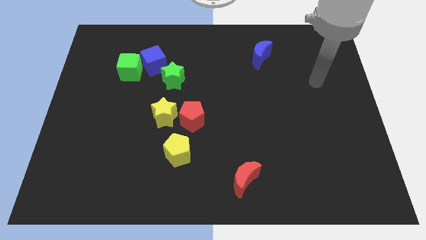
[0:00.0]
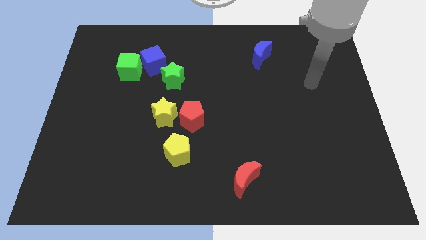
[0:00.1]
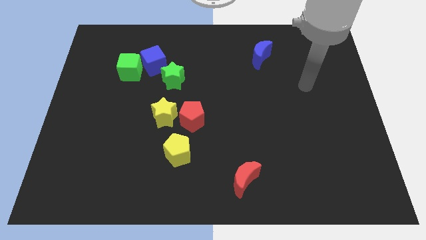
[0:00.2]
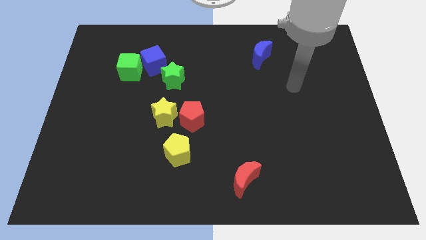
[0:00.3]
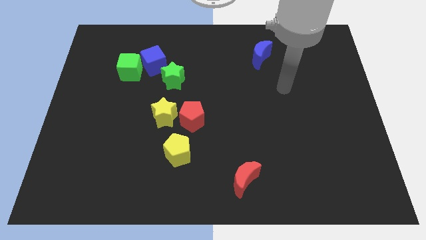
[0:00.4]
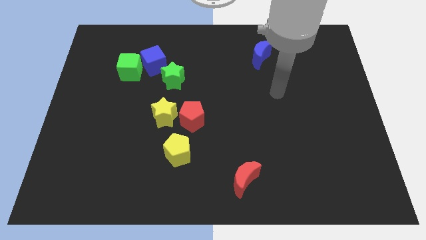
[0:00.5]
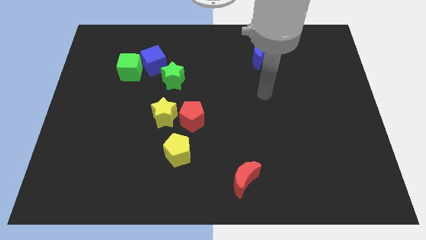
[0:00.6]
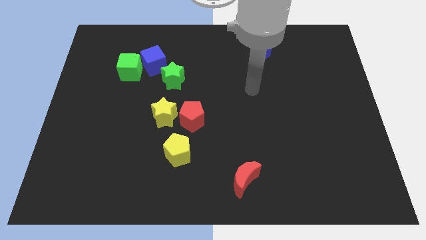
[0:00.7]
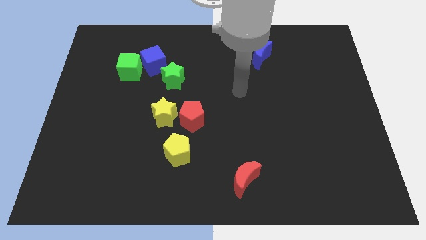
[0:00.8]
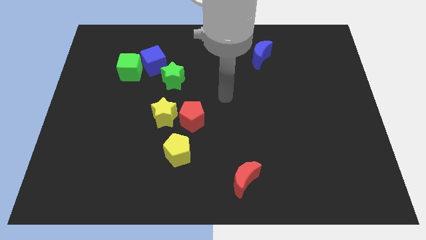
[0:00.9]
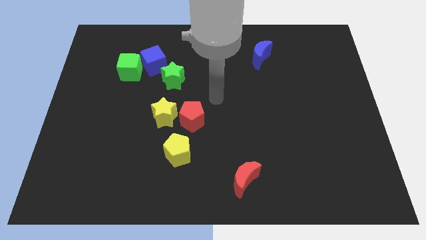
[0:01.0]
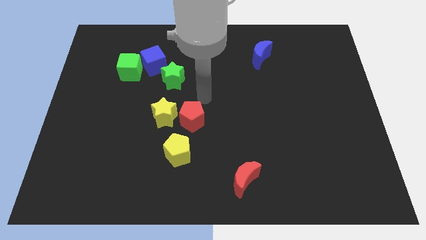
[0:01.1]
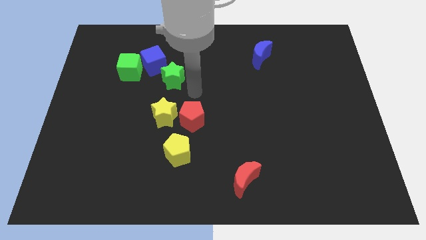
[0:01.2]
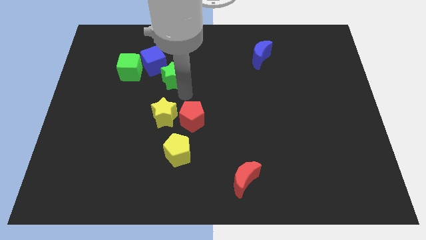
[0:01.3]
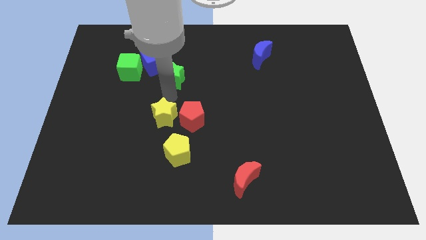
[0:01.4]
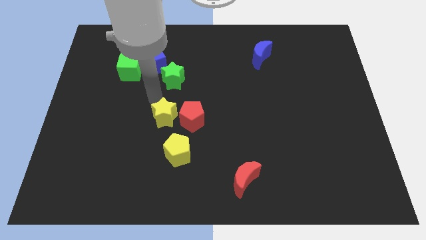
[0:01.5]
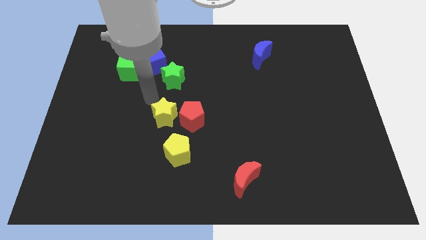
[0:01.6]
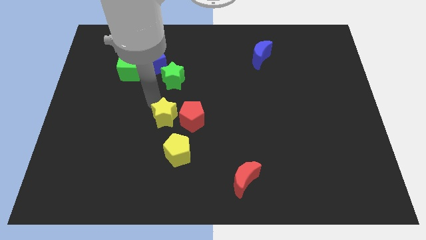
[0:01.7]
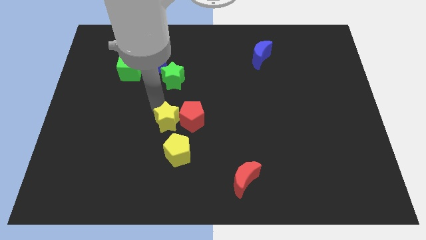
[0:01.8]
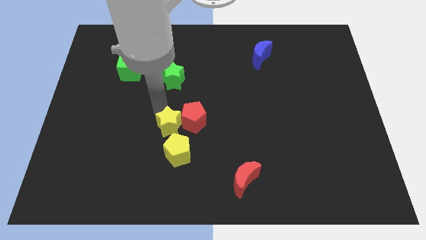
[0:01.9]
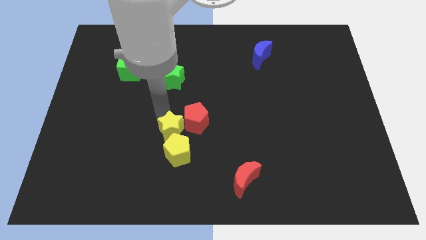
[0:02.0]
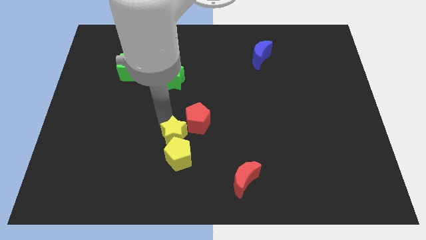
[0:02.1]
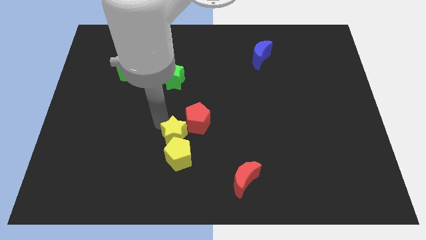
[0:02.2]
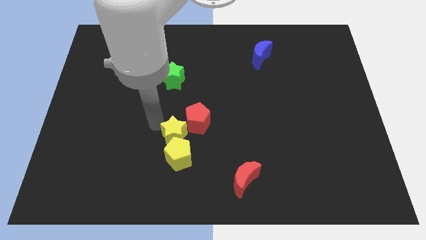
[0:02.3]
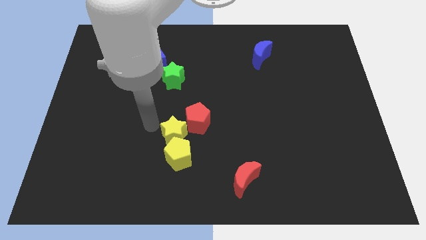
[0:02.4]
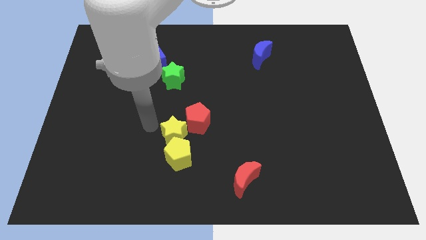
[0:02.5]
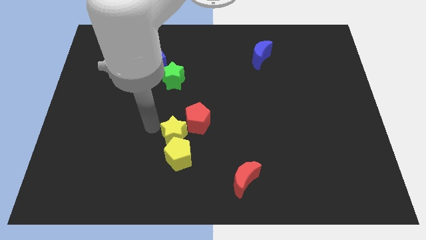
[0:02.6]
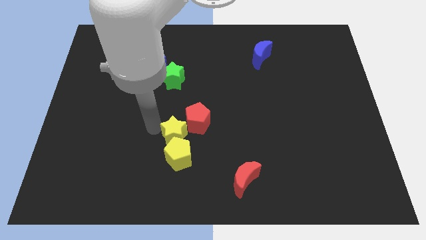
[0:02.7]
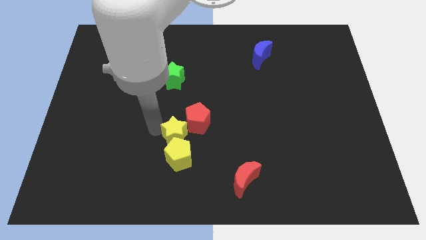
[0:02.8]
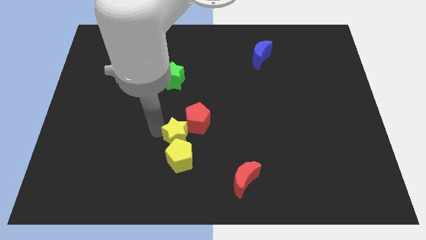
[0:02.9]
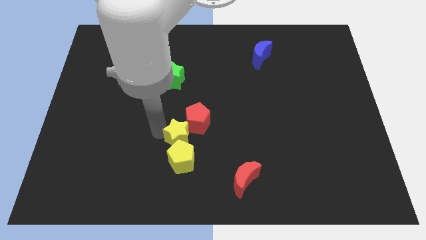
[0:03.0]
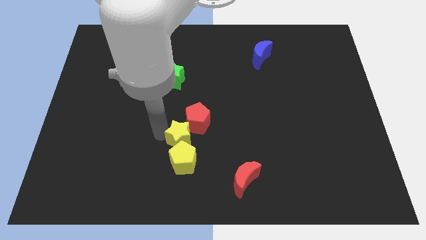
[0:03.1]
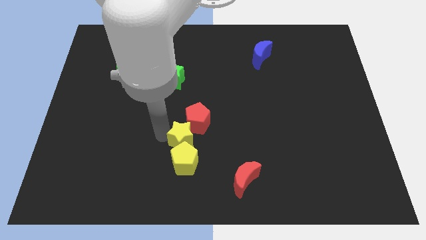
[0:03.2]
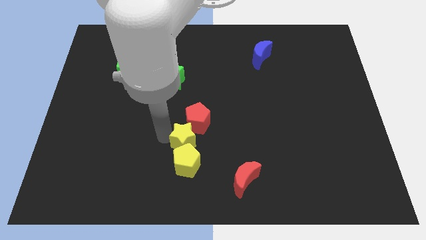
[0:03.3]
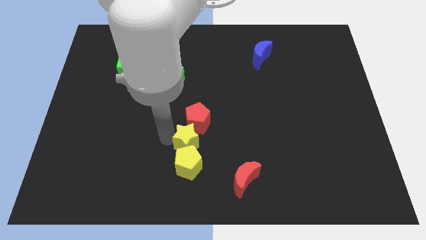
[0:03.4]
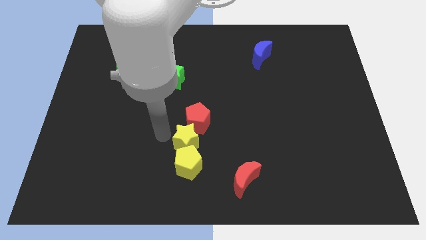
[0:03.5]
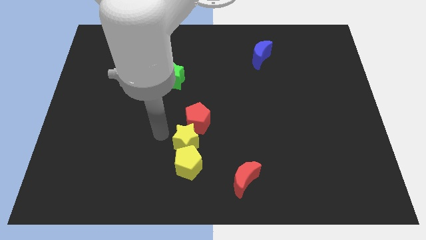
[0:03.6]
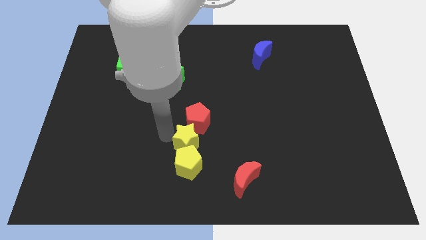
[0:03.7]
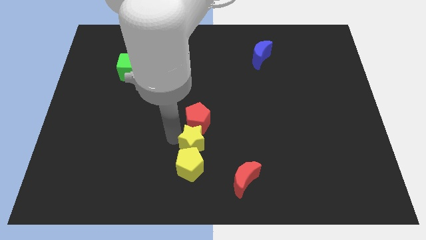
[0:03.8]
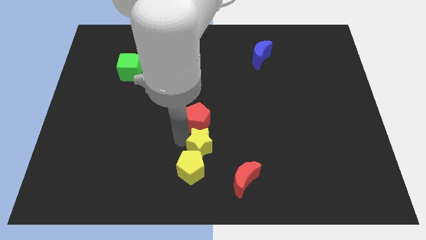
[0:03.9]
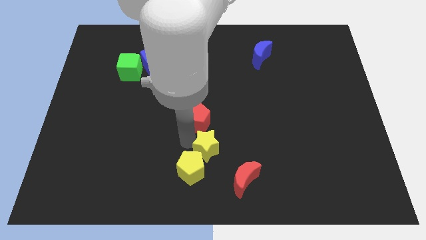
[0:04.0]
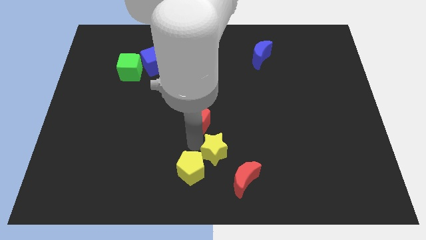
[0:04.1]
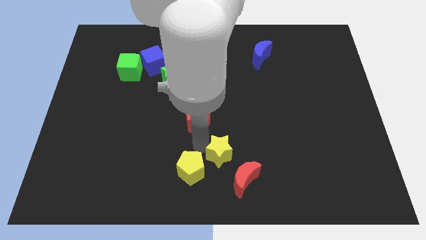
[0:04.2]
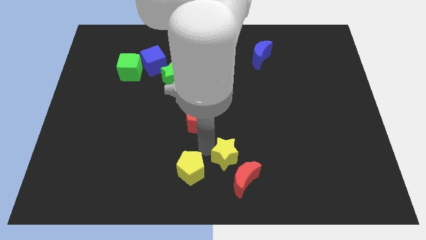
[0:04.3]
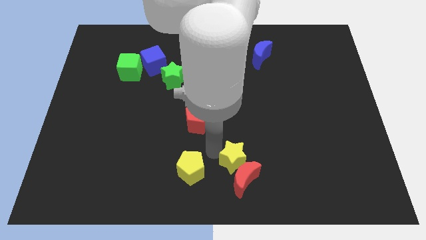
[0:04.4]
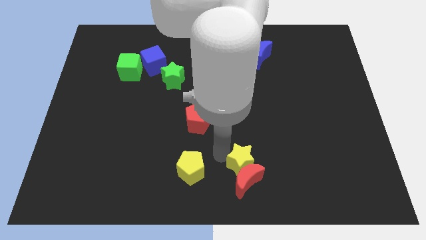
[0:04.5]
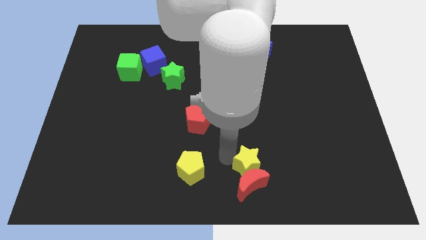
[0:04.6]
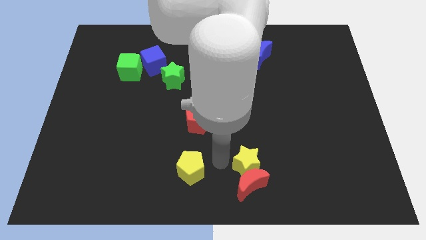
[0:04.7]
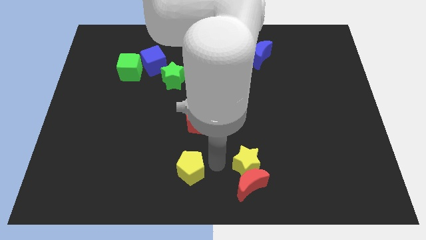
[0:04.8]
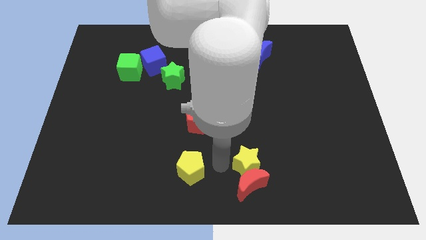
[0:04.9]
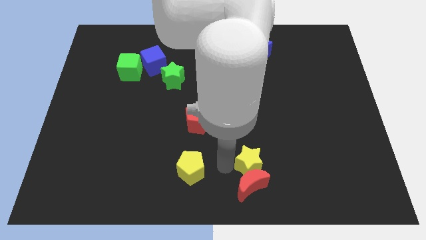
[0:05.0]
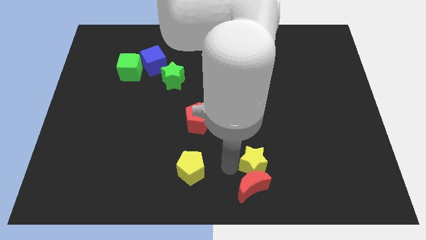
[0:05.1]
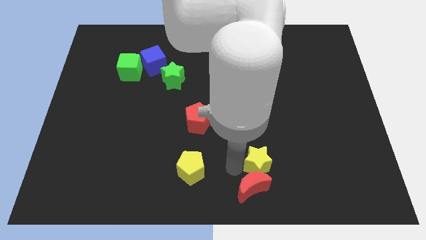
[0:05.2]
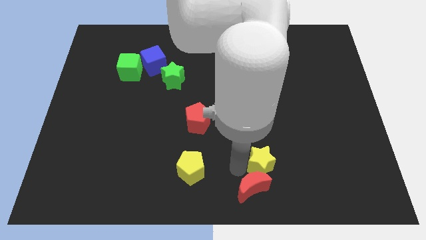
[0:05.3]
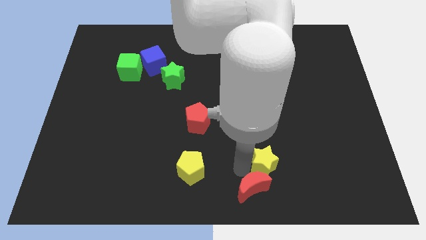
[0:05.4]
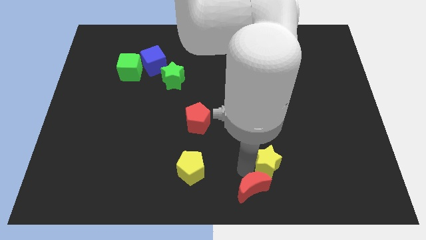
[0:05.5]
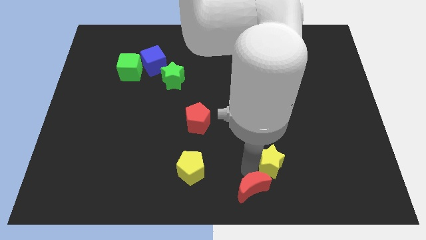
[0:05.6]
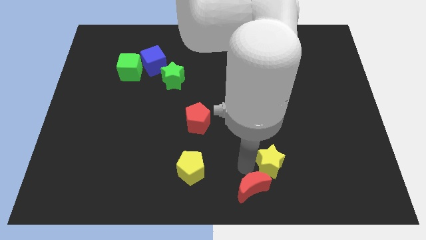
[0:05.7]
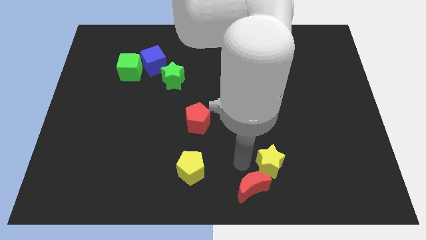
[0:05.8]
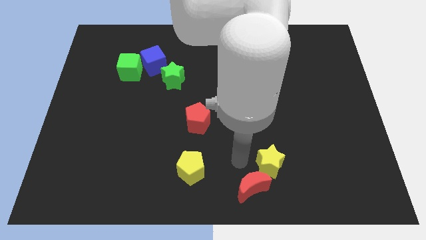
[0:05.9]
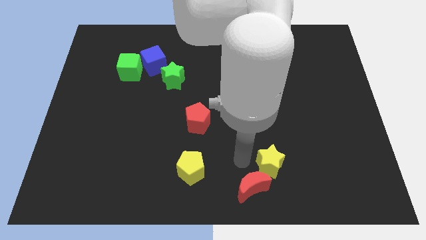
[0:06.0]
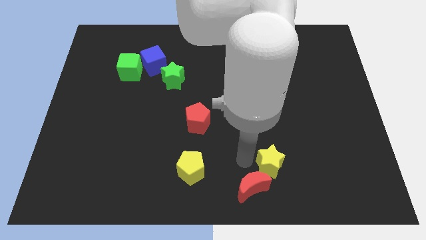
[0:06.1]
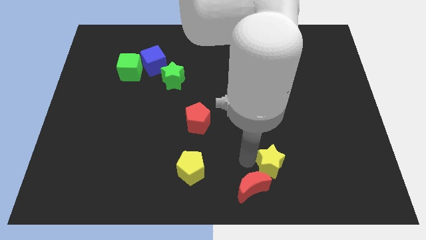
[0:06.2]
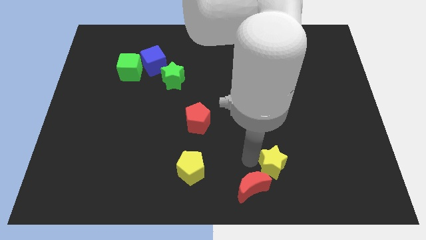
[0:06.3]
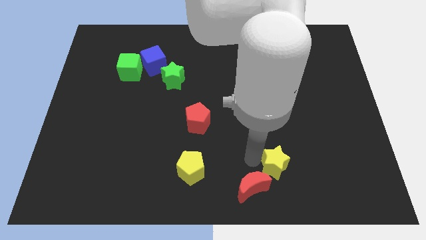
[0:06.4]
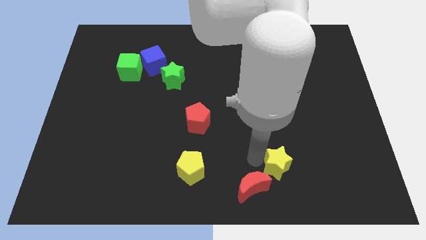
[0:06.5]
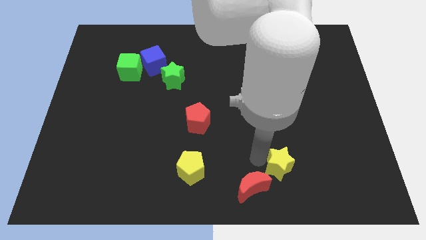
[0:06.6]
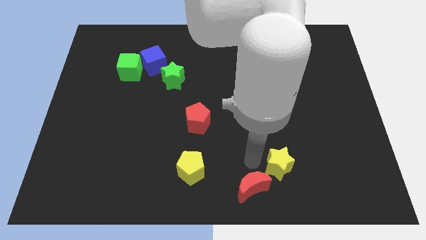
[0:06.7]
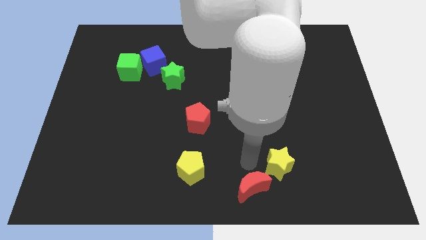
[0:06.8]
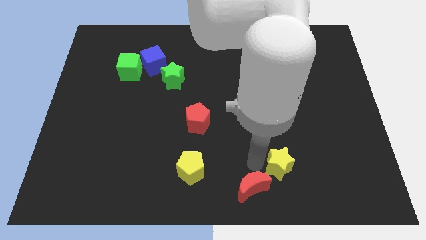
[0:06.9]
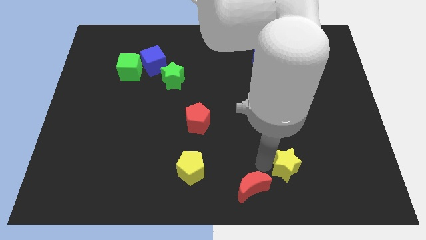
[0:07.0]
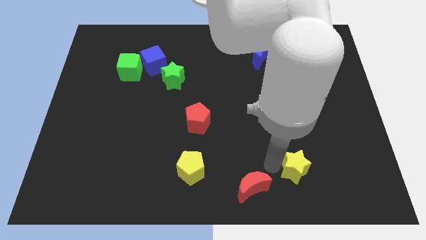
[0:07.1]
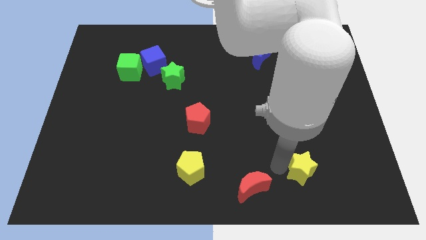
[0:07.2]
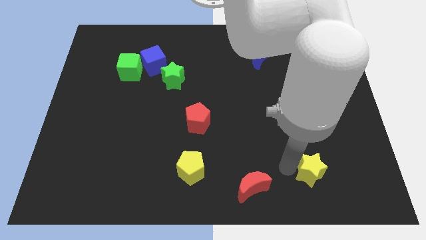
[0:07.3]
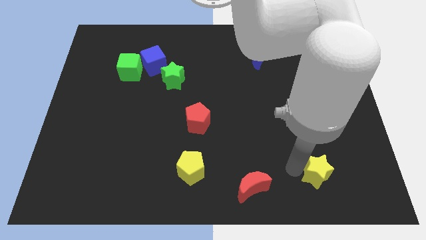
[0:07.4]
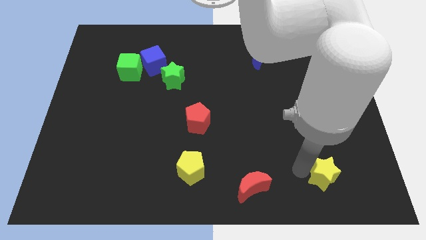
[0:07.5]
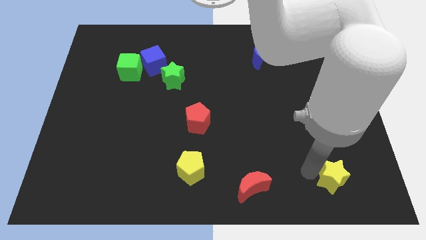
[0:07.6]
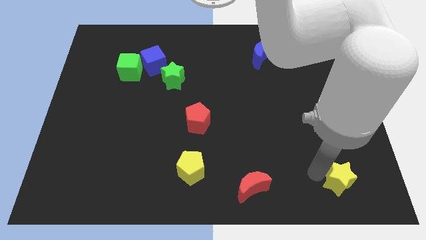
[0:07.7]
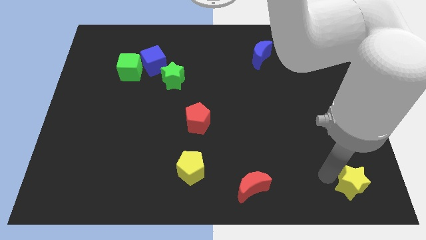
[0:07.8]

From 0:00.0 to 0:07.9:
put the yellow star to the bottom right
